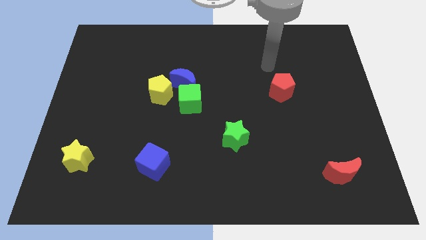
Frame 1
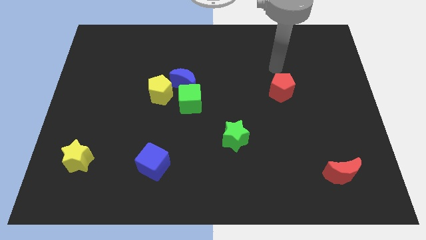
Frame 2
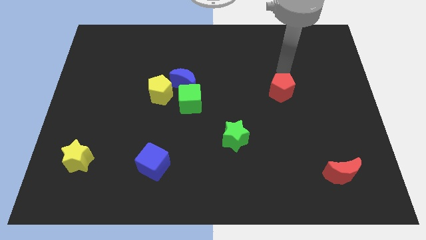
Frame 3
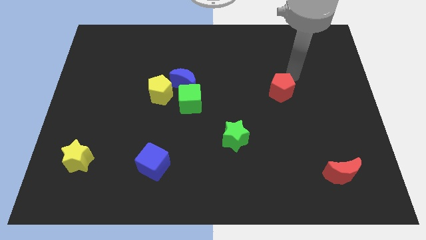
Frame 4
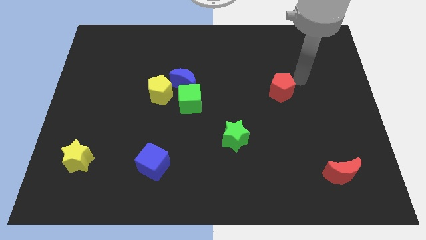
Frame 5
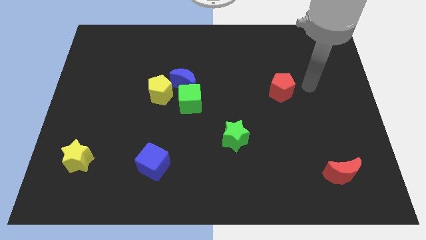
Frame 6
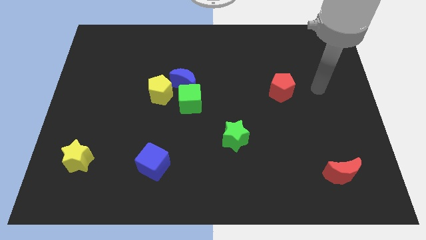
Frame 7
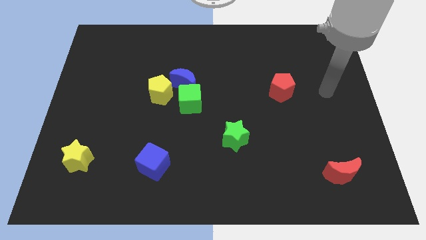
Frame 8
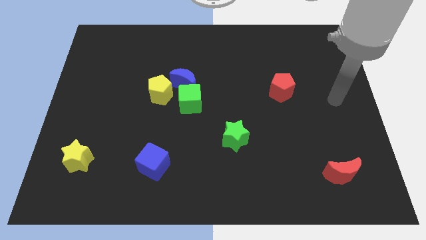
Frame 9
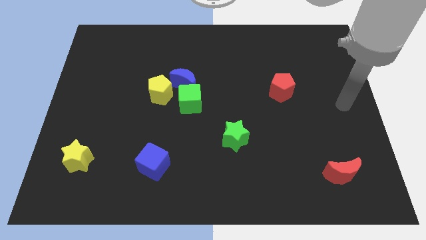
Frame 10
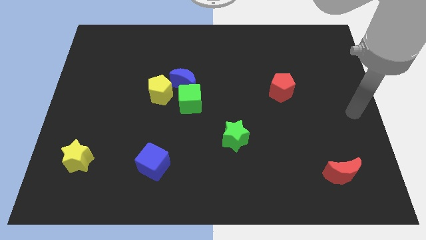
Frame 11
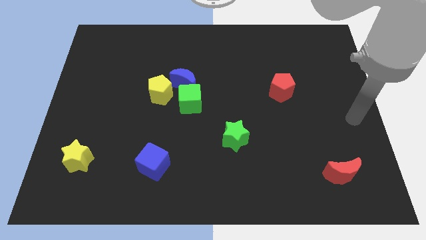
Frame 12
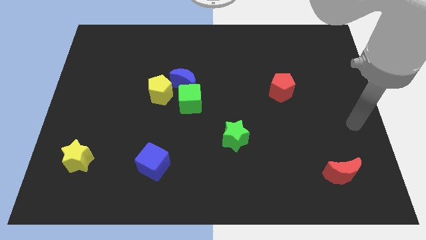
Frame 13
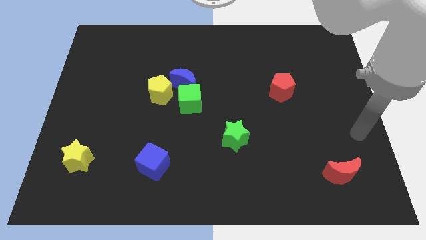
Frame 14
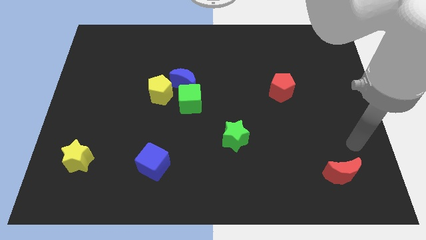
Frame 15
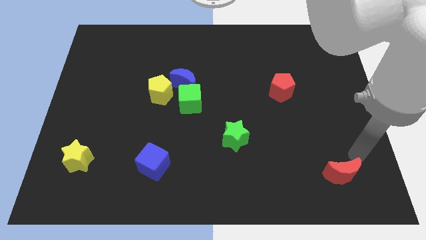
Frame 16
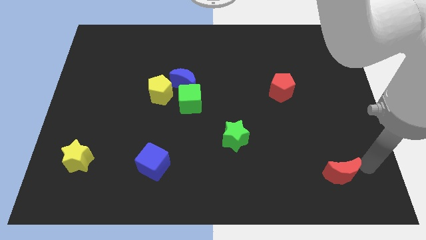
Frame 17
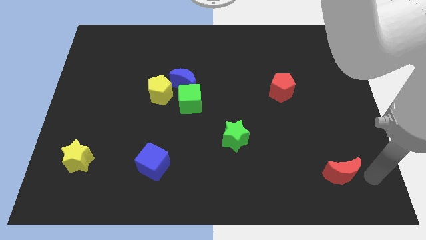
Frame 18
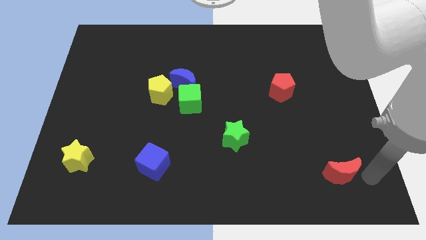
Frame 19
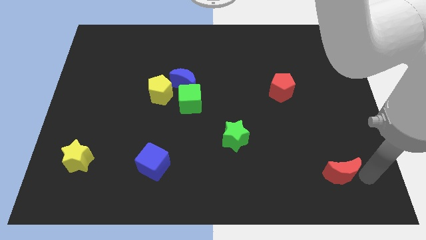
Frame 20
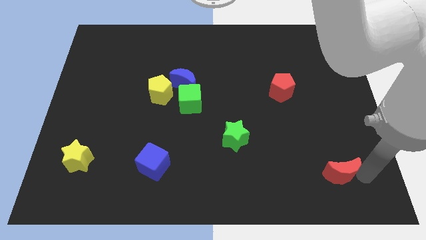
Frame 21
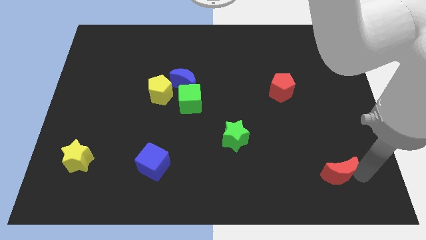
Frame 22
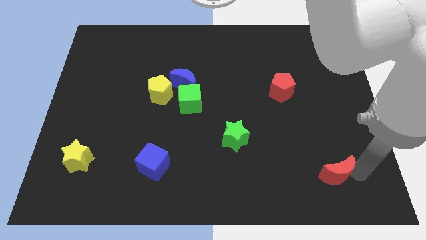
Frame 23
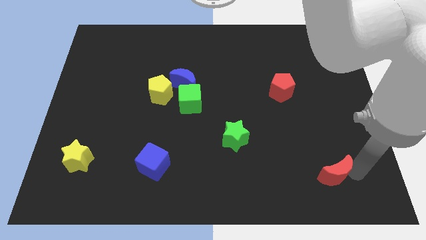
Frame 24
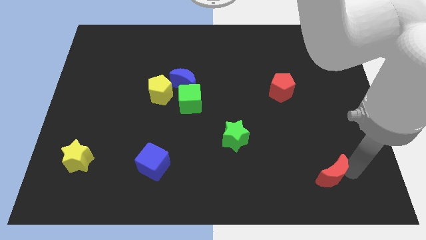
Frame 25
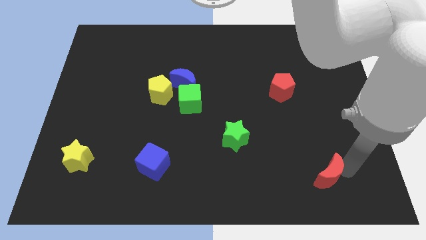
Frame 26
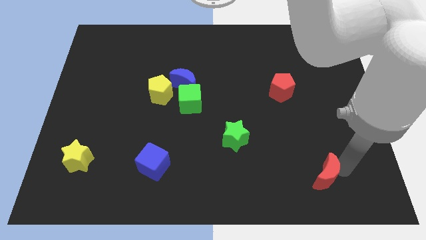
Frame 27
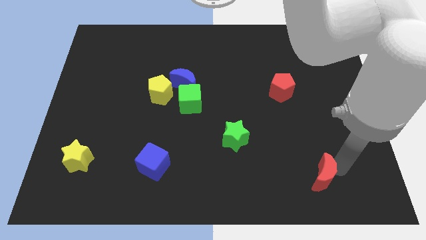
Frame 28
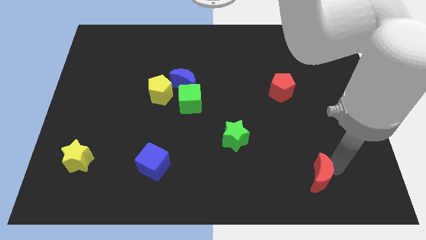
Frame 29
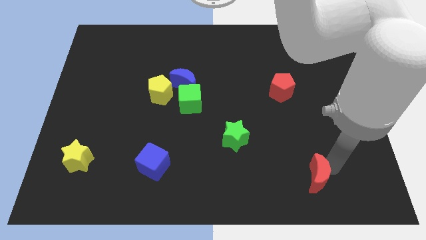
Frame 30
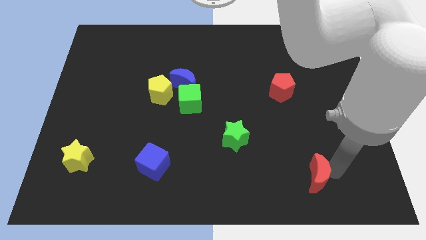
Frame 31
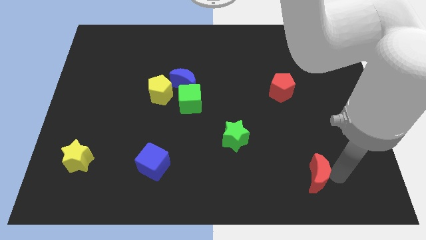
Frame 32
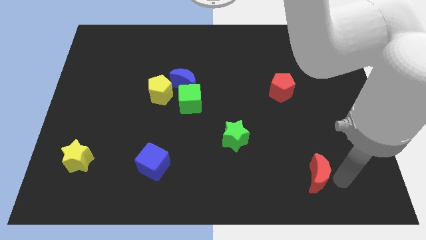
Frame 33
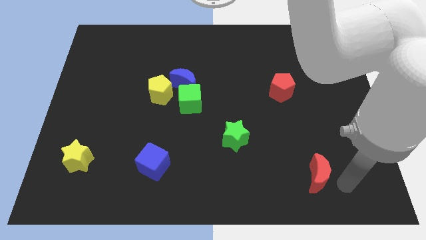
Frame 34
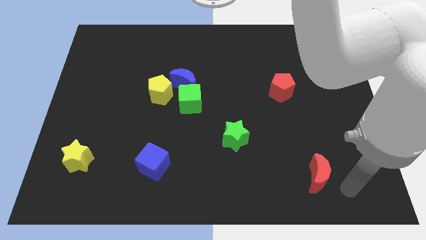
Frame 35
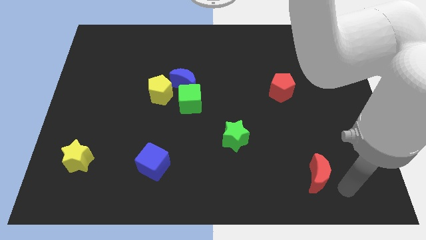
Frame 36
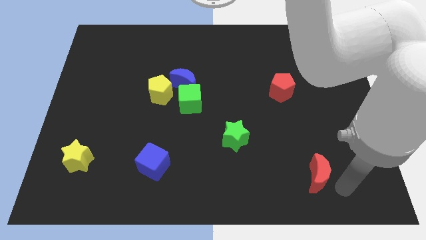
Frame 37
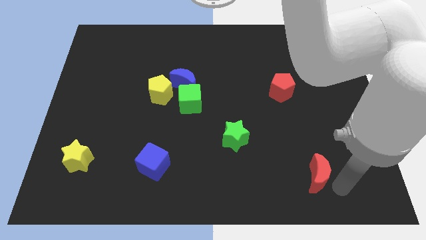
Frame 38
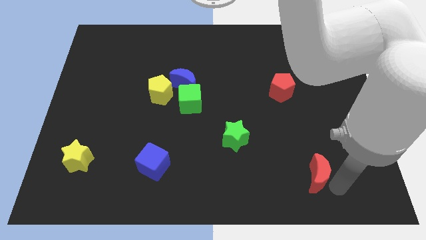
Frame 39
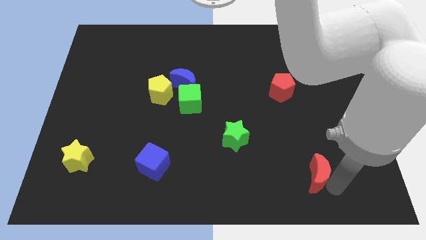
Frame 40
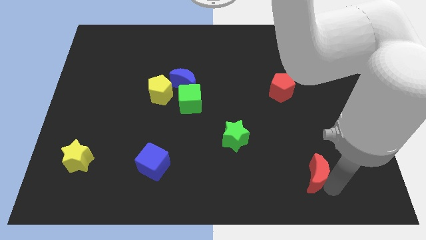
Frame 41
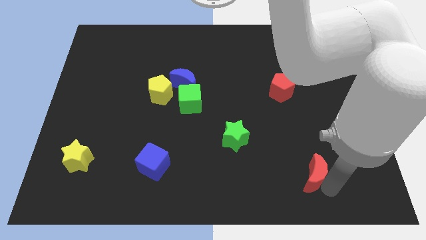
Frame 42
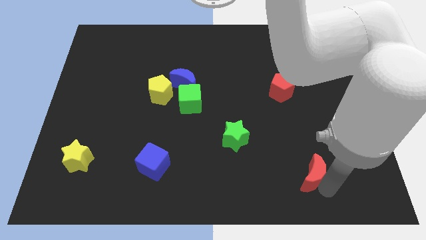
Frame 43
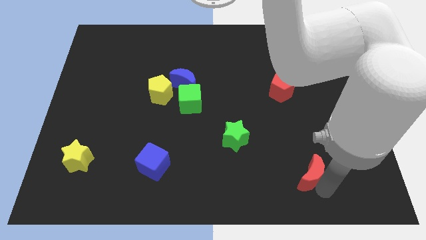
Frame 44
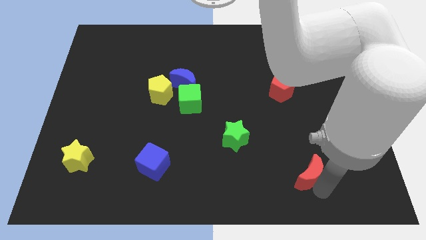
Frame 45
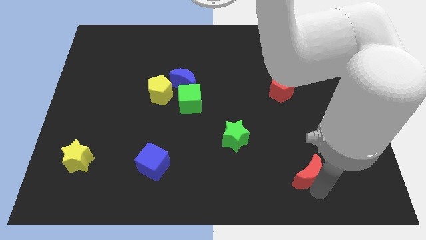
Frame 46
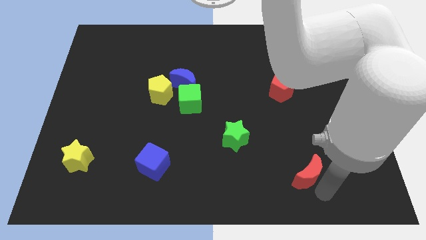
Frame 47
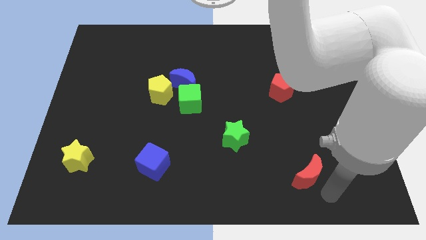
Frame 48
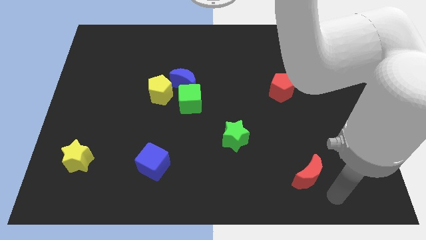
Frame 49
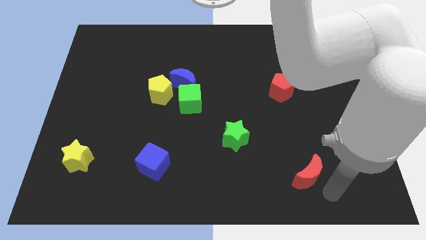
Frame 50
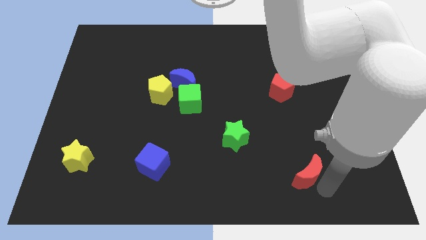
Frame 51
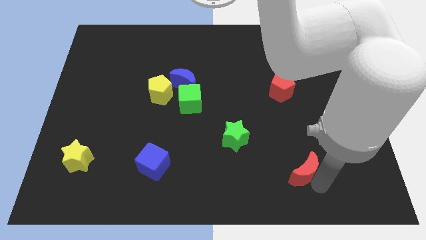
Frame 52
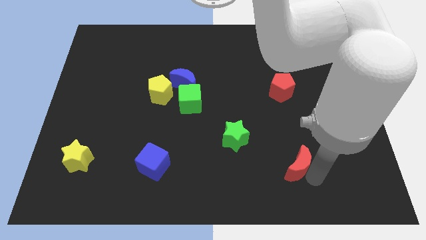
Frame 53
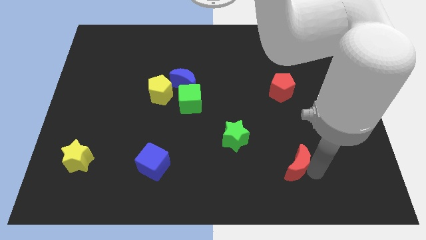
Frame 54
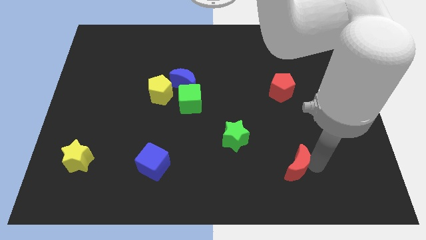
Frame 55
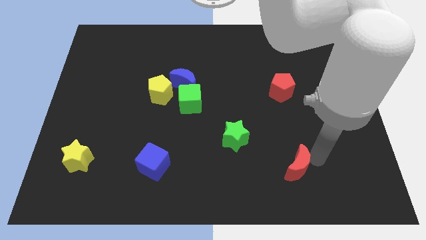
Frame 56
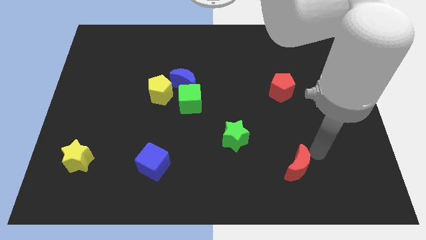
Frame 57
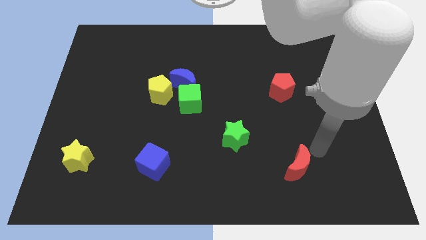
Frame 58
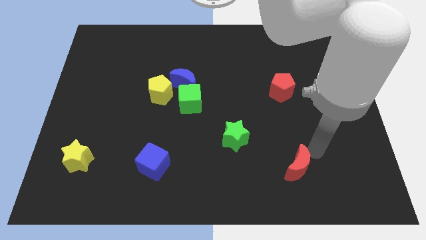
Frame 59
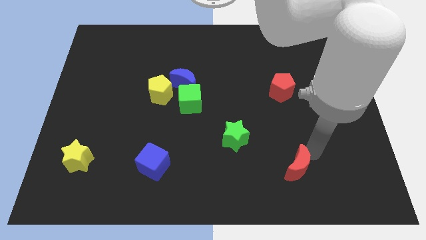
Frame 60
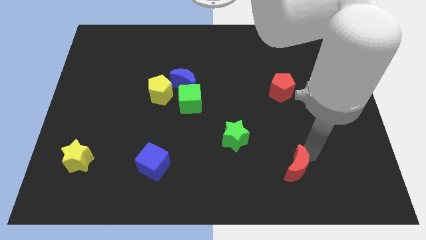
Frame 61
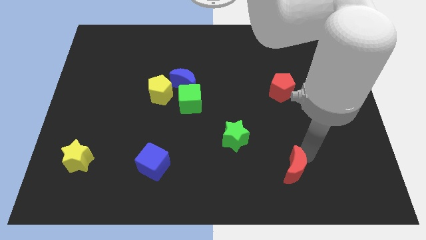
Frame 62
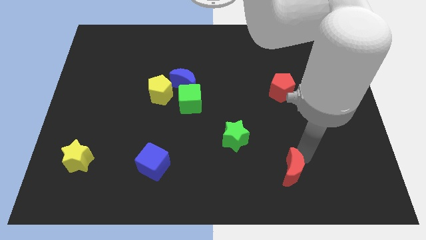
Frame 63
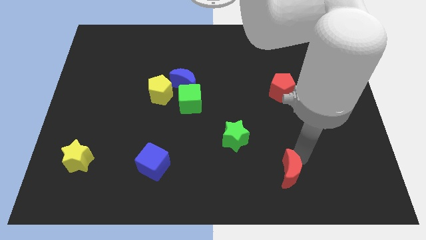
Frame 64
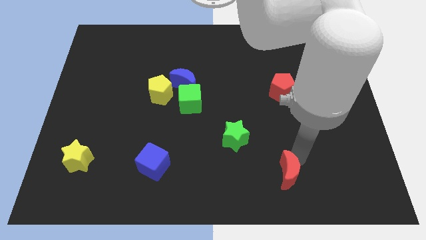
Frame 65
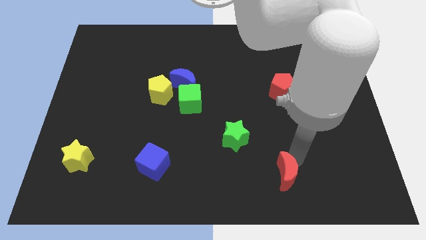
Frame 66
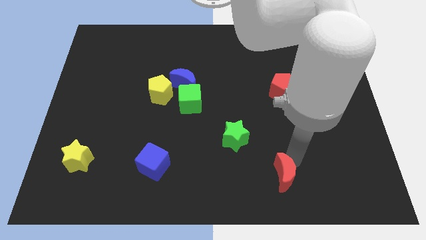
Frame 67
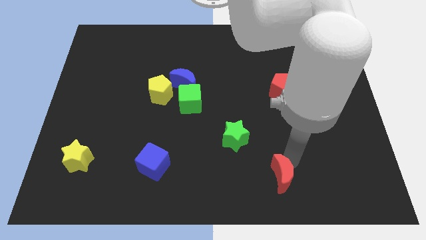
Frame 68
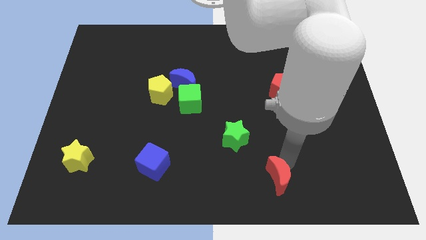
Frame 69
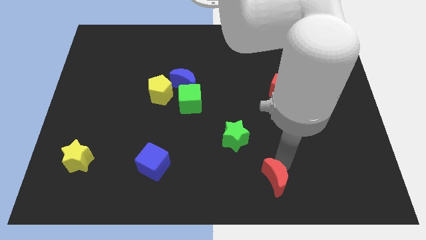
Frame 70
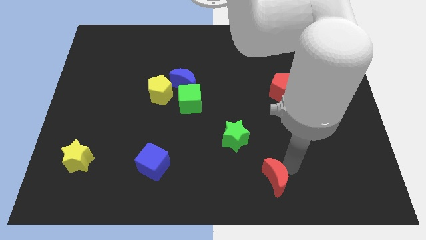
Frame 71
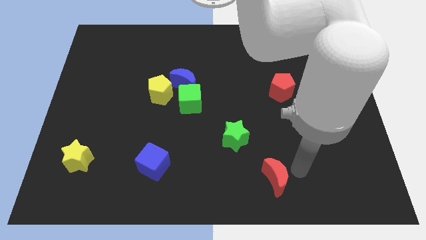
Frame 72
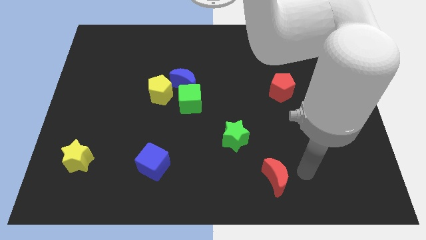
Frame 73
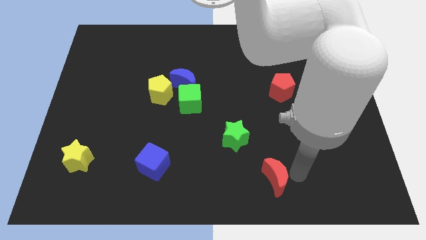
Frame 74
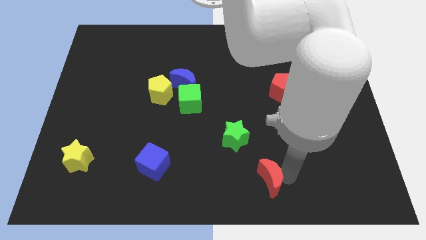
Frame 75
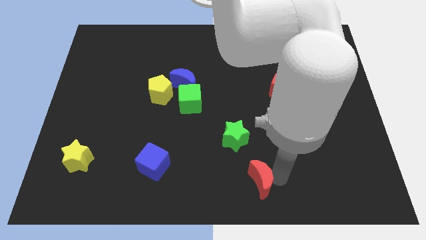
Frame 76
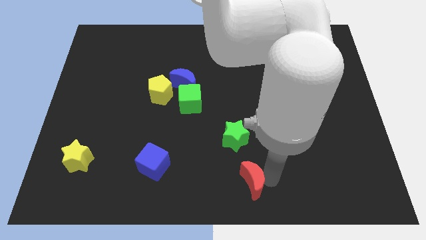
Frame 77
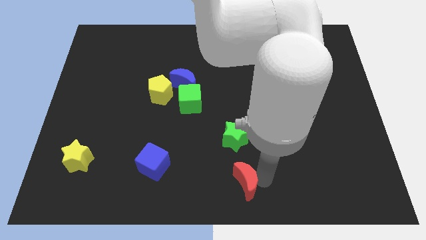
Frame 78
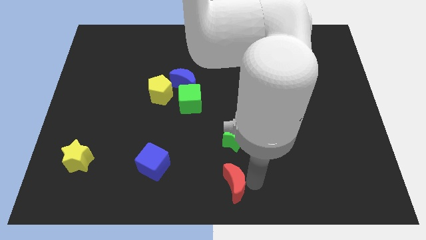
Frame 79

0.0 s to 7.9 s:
move the red moon left
